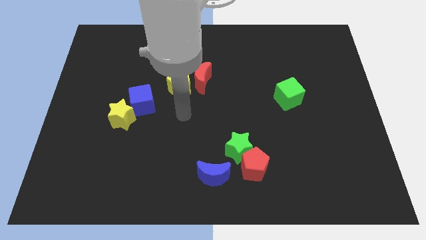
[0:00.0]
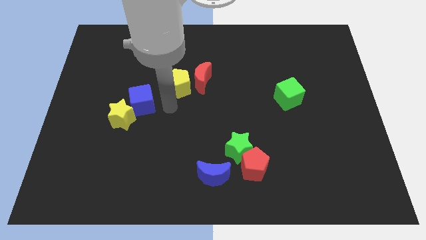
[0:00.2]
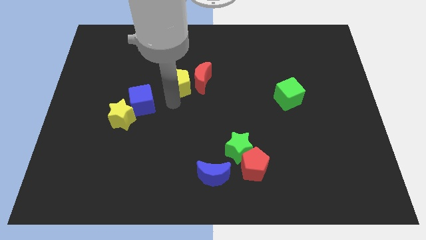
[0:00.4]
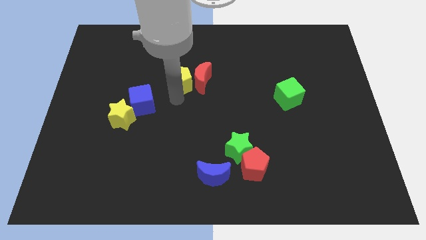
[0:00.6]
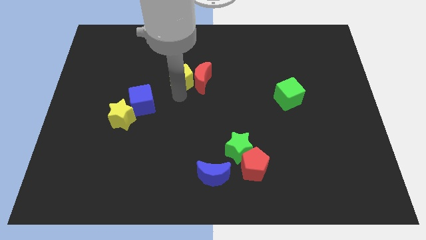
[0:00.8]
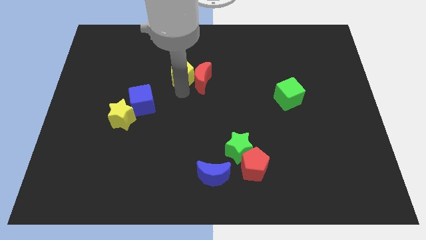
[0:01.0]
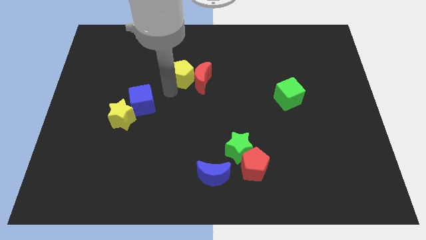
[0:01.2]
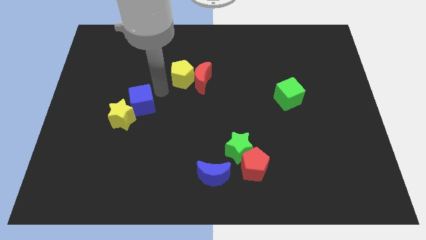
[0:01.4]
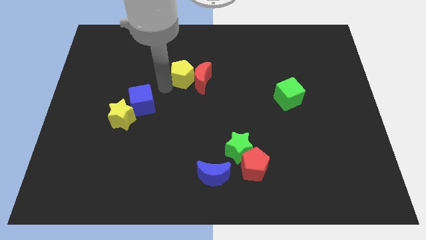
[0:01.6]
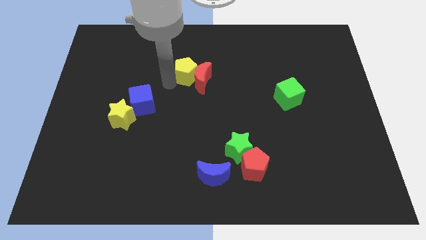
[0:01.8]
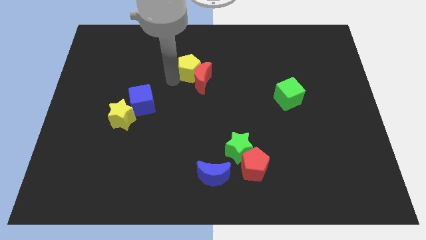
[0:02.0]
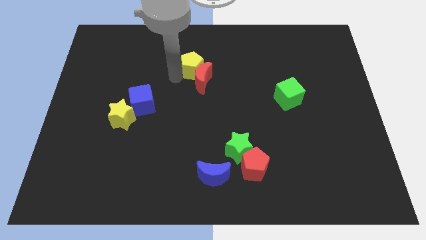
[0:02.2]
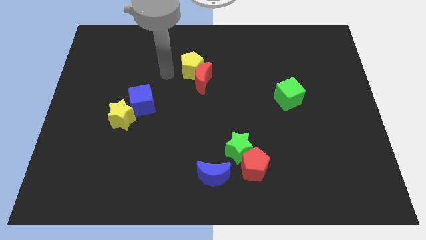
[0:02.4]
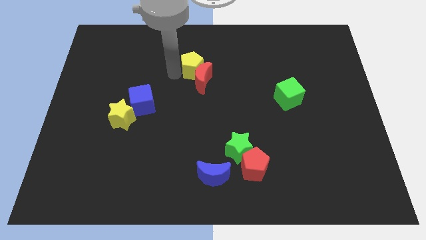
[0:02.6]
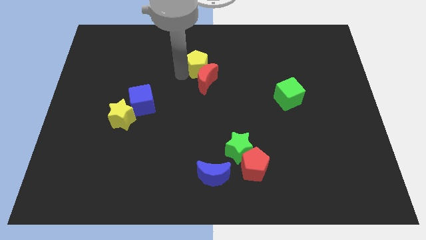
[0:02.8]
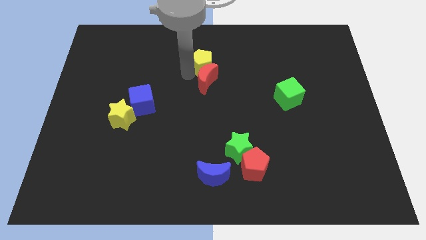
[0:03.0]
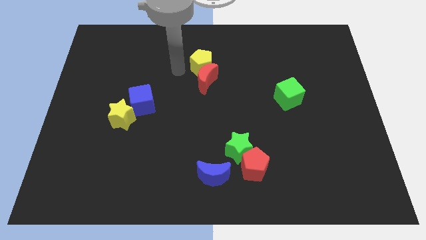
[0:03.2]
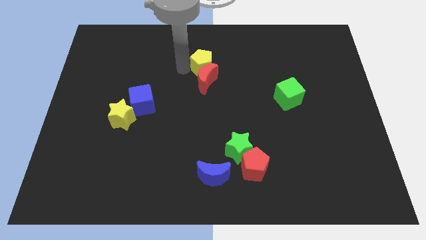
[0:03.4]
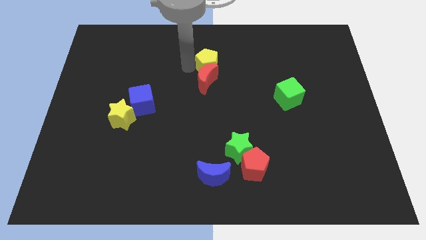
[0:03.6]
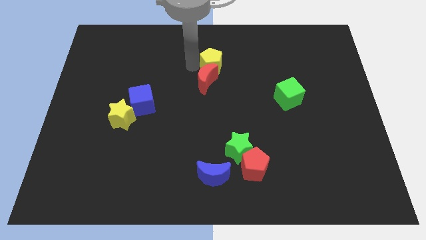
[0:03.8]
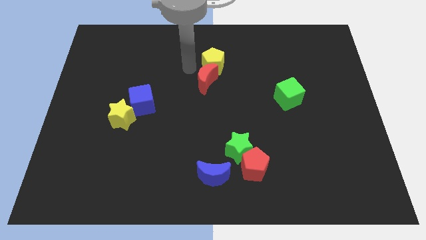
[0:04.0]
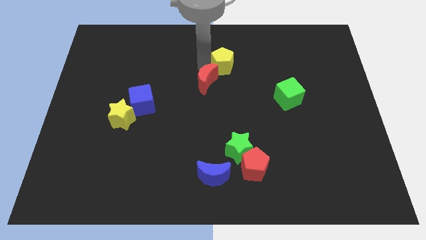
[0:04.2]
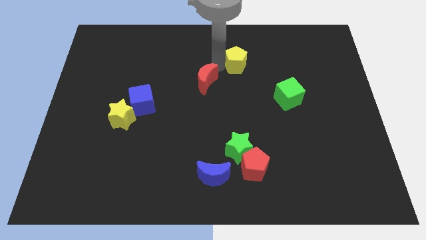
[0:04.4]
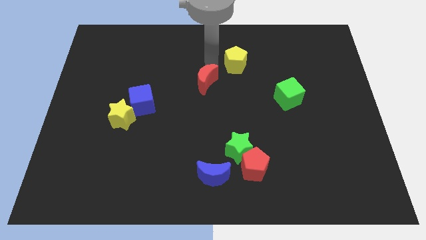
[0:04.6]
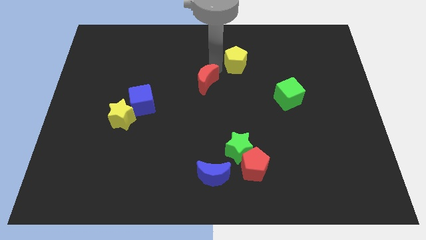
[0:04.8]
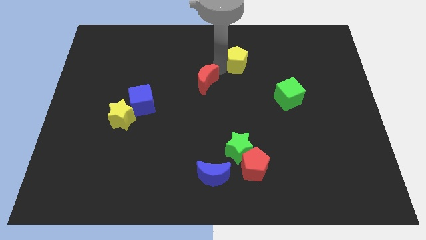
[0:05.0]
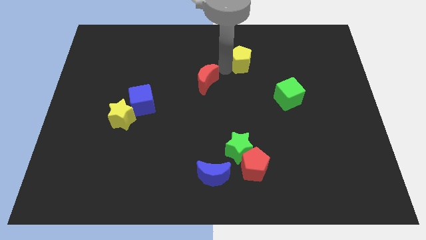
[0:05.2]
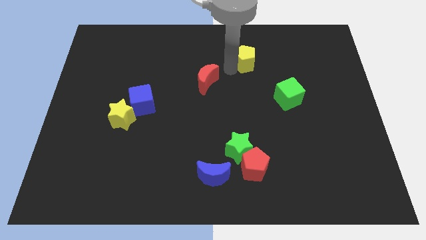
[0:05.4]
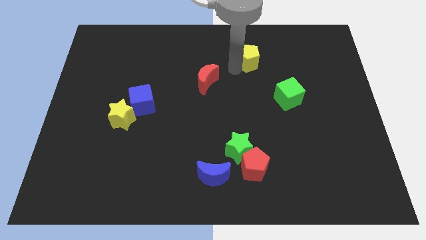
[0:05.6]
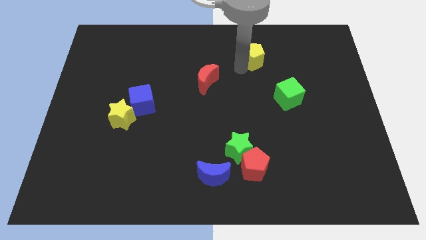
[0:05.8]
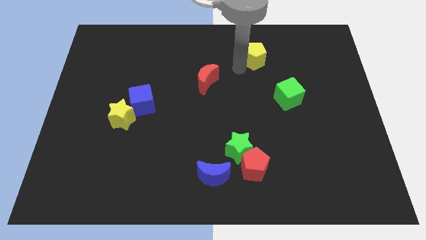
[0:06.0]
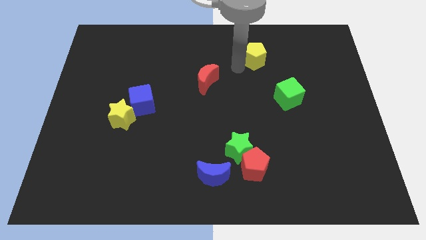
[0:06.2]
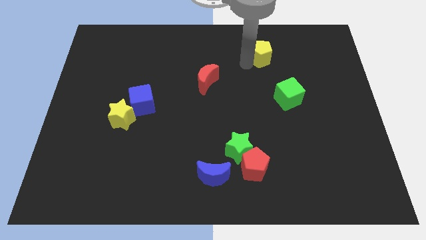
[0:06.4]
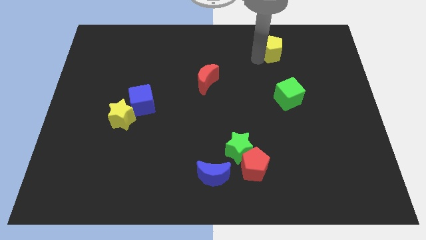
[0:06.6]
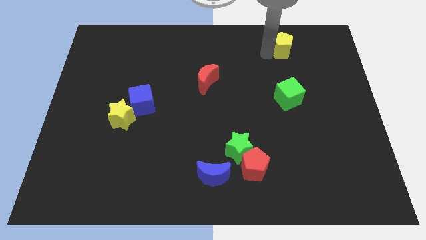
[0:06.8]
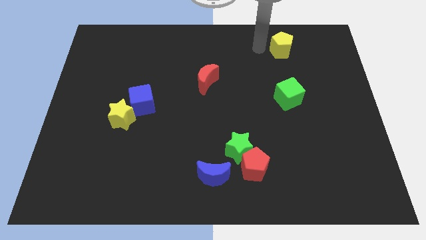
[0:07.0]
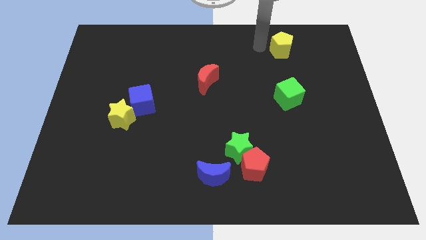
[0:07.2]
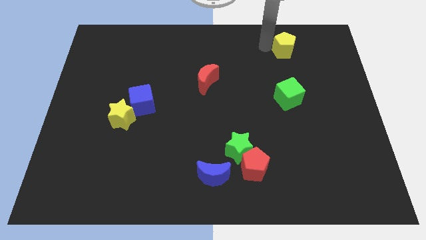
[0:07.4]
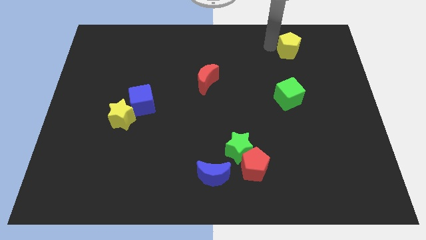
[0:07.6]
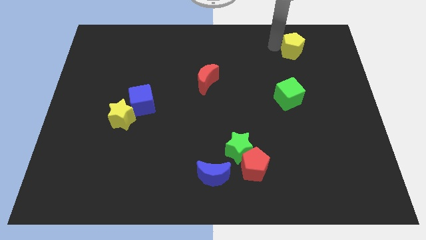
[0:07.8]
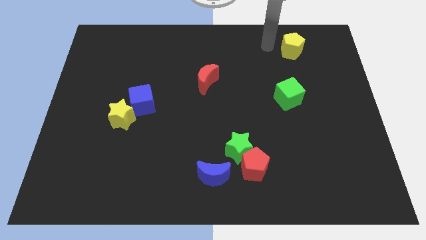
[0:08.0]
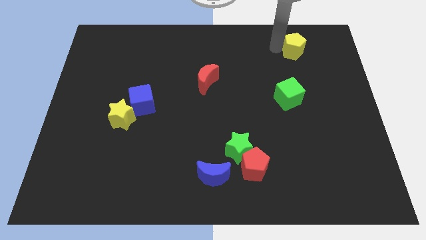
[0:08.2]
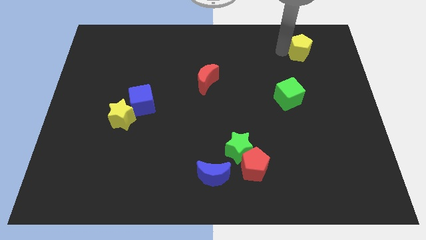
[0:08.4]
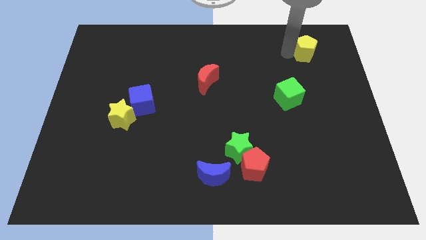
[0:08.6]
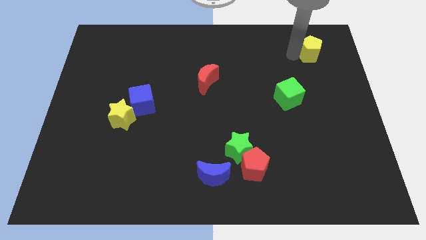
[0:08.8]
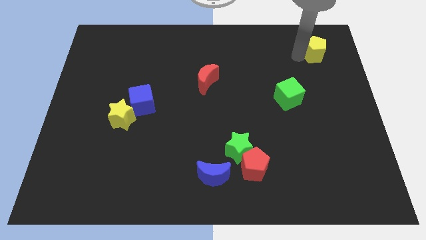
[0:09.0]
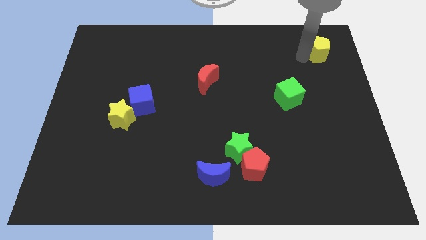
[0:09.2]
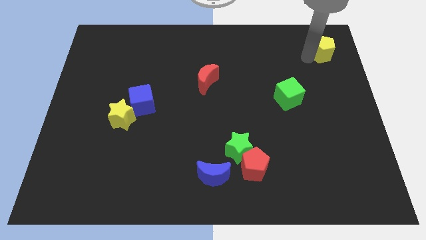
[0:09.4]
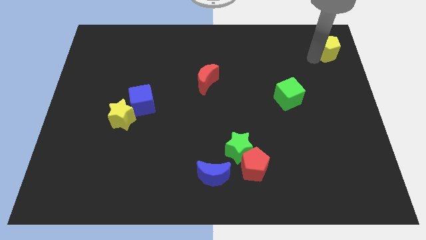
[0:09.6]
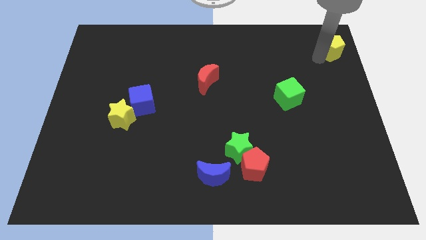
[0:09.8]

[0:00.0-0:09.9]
push the yellow pentagon to the top right of the board

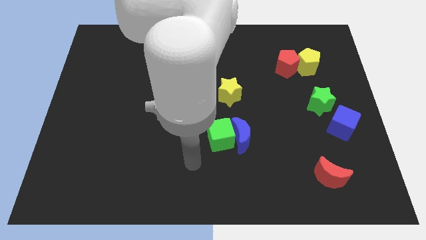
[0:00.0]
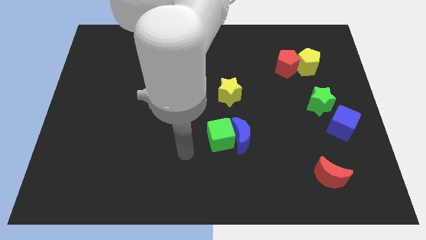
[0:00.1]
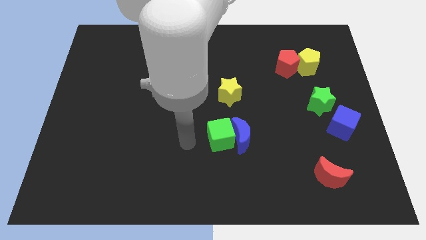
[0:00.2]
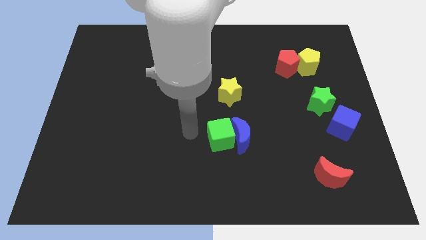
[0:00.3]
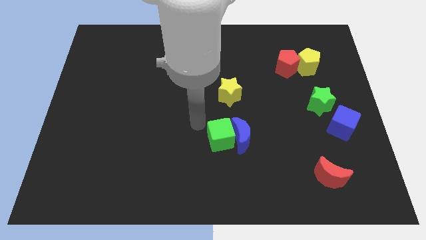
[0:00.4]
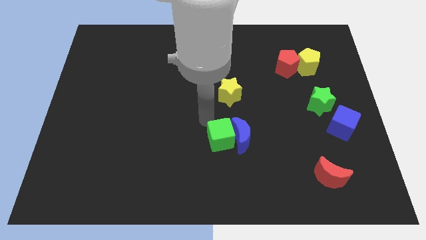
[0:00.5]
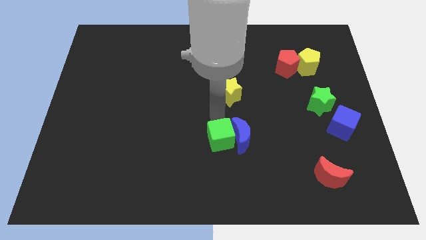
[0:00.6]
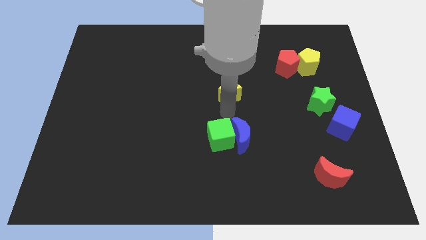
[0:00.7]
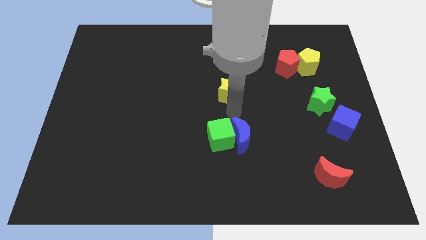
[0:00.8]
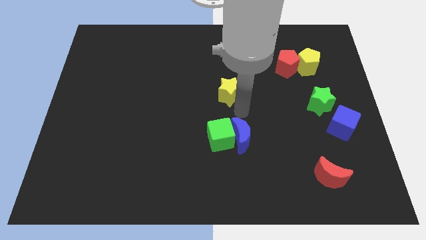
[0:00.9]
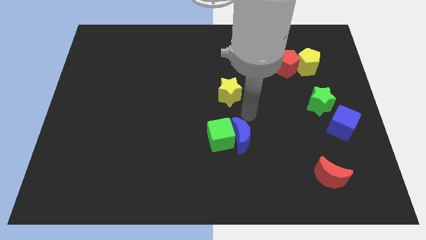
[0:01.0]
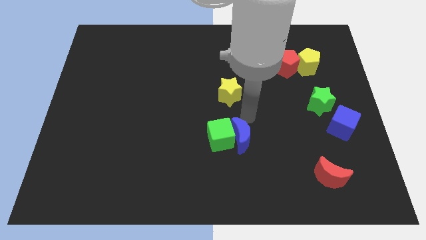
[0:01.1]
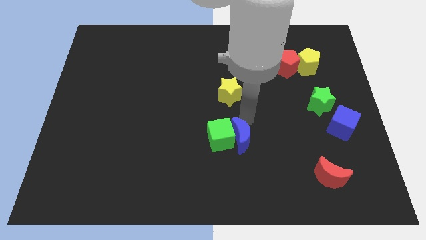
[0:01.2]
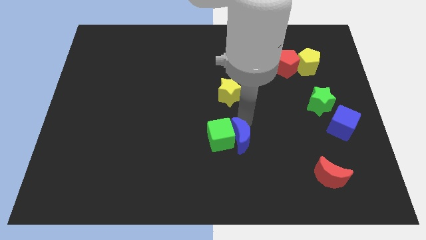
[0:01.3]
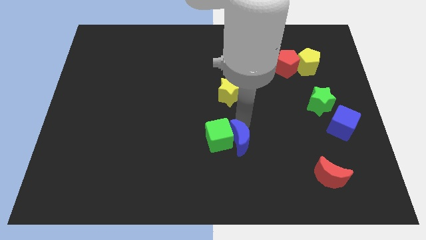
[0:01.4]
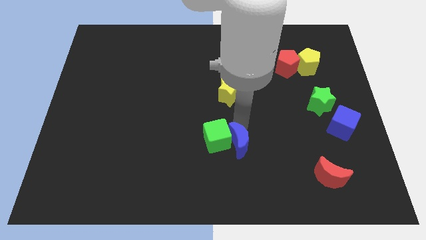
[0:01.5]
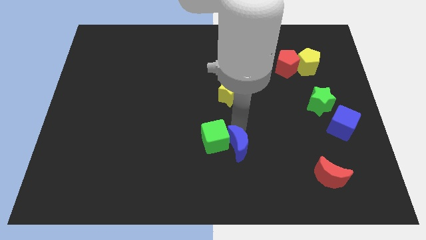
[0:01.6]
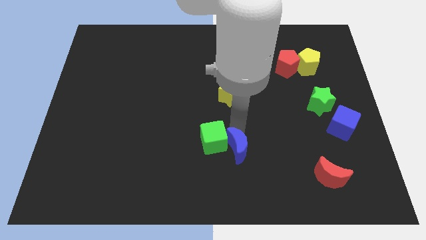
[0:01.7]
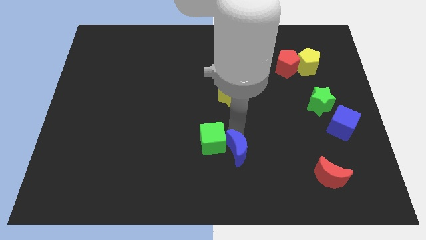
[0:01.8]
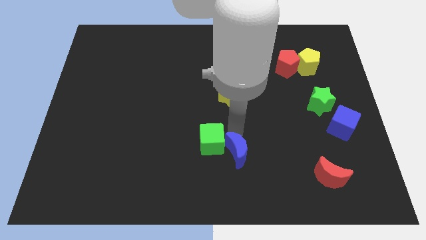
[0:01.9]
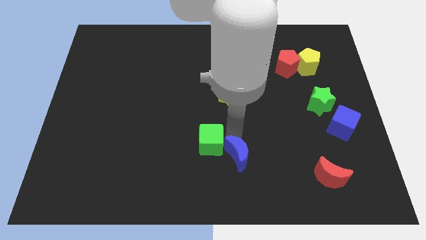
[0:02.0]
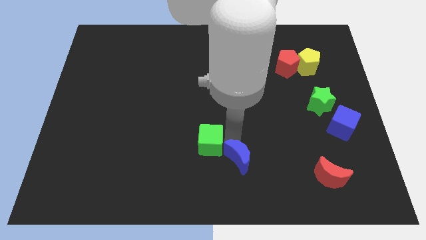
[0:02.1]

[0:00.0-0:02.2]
push the blue moon to the bottom side

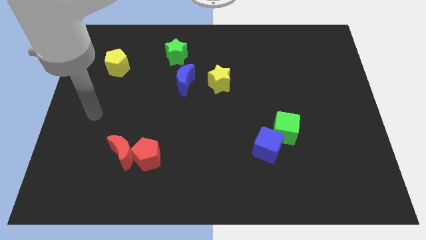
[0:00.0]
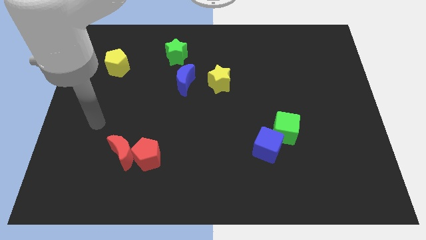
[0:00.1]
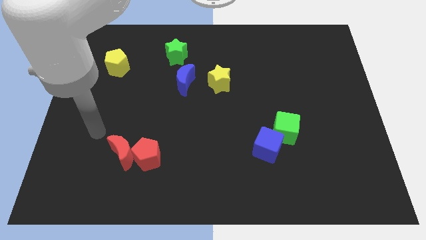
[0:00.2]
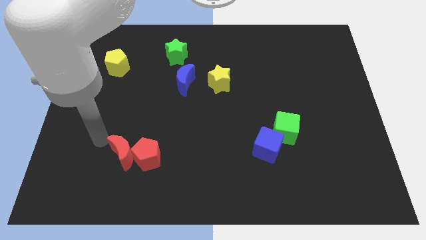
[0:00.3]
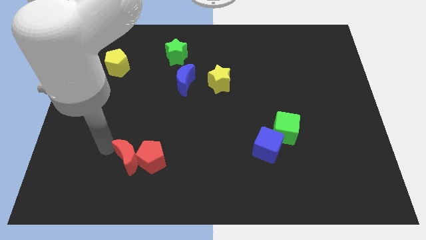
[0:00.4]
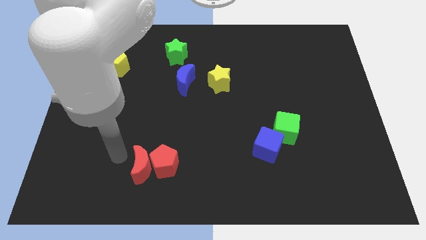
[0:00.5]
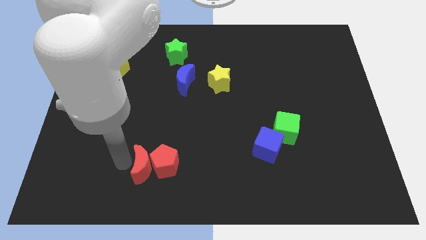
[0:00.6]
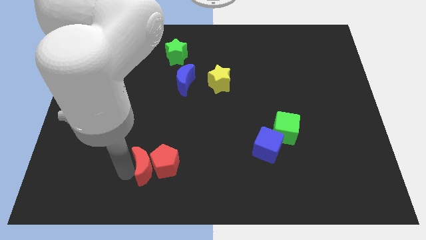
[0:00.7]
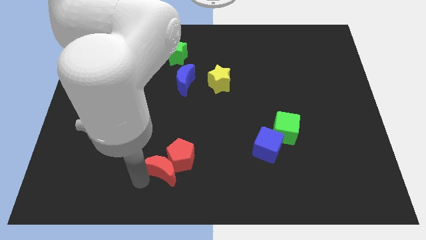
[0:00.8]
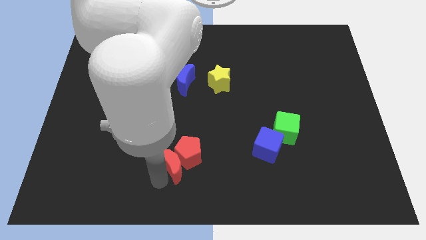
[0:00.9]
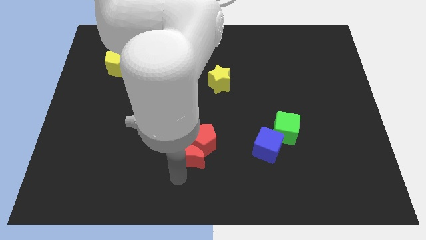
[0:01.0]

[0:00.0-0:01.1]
put the red pentagon to the center of the board
